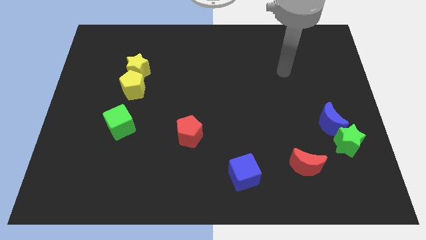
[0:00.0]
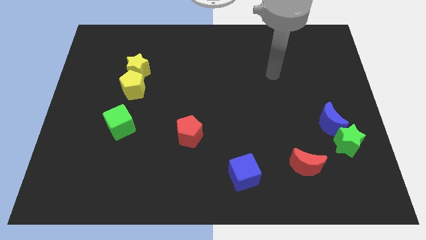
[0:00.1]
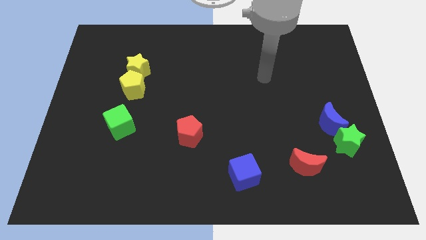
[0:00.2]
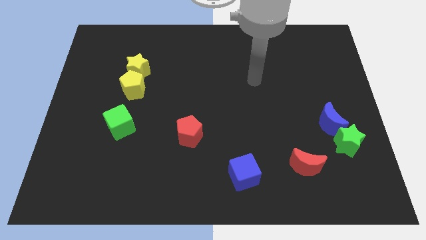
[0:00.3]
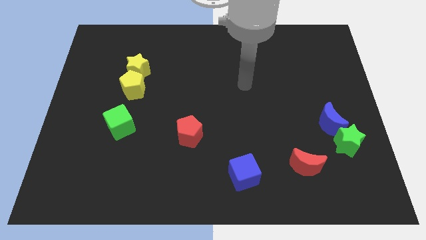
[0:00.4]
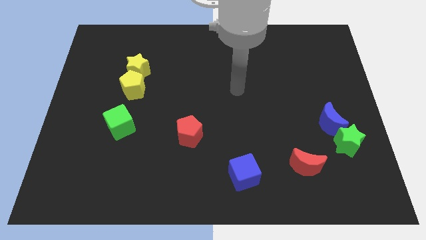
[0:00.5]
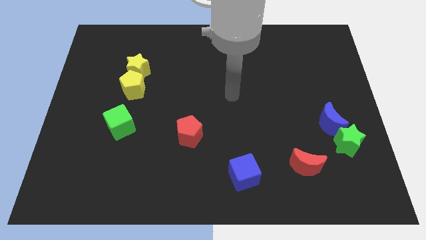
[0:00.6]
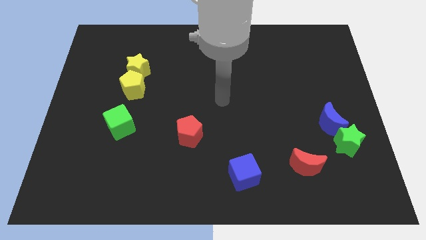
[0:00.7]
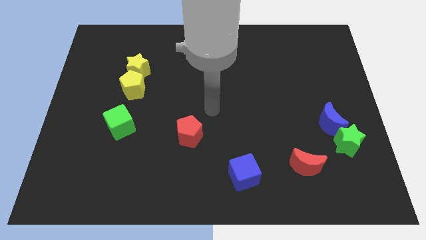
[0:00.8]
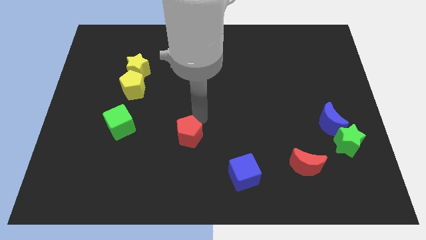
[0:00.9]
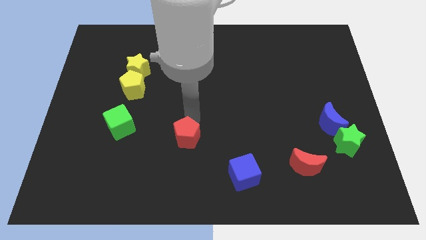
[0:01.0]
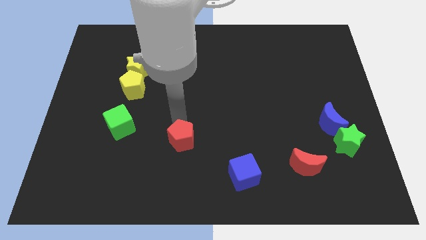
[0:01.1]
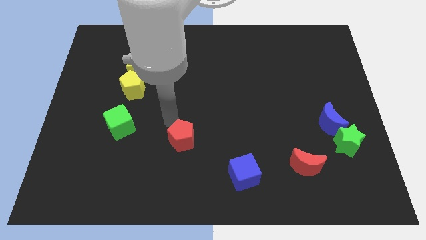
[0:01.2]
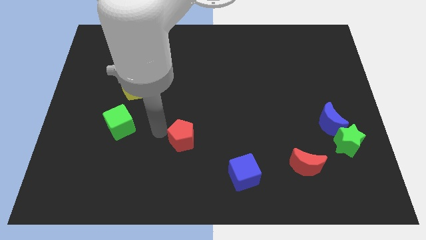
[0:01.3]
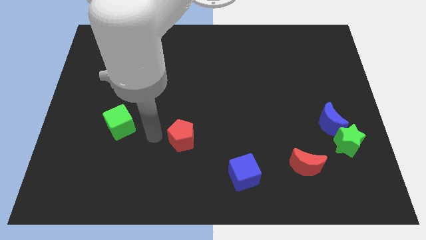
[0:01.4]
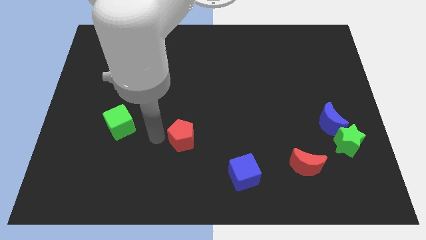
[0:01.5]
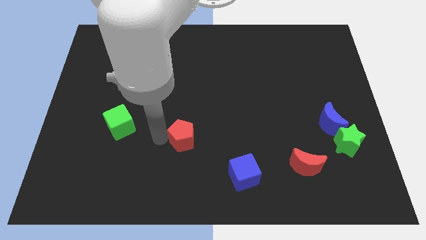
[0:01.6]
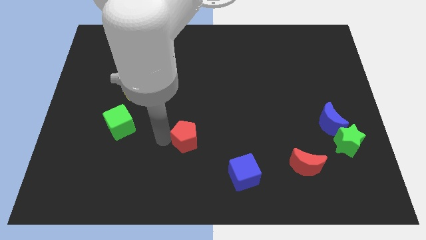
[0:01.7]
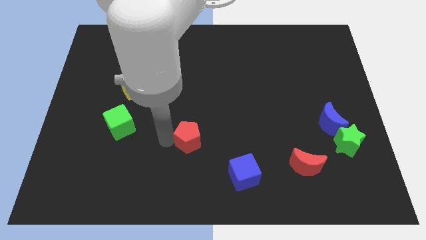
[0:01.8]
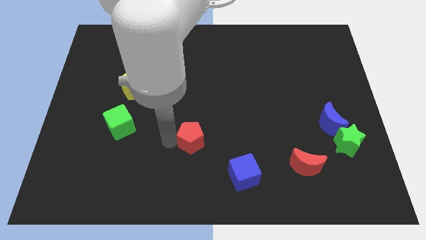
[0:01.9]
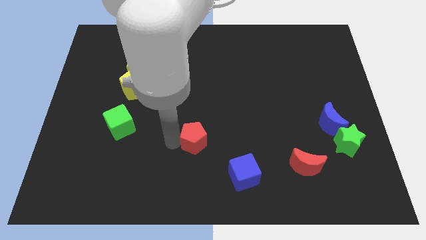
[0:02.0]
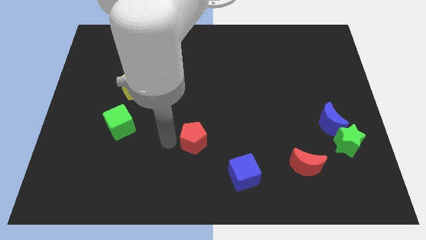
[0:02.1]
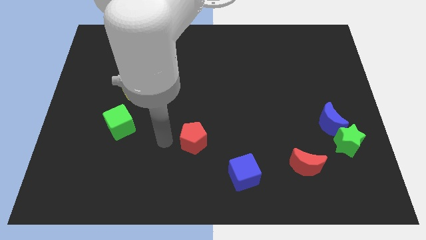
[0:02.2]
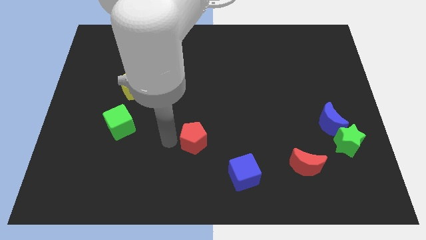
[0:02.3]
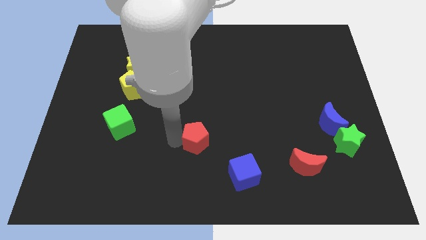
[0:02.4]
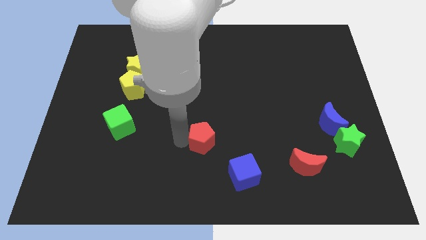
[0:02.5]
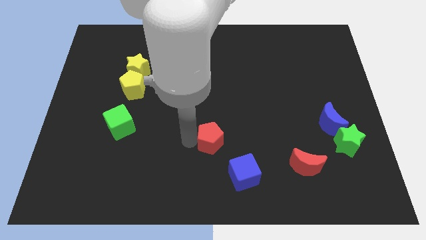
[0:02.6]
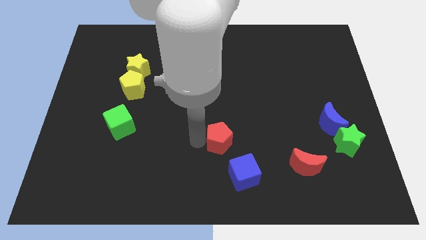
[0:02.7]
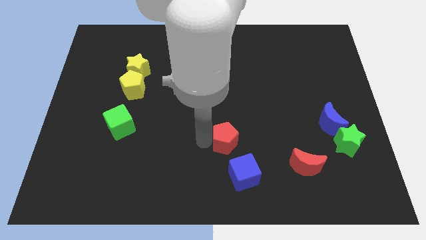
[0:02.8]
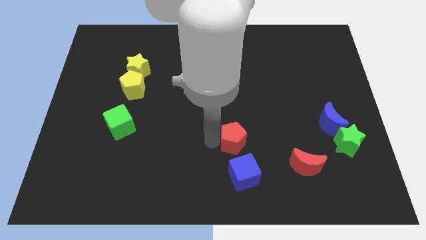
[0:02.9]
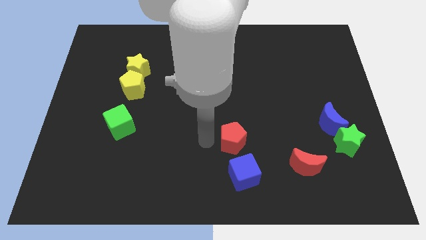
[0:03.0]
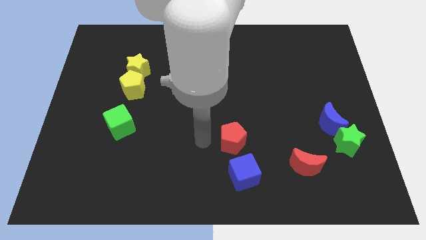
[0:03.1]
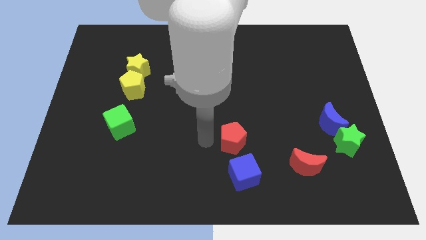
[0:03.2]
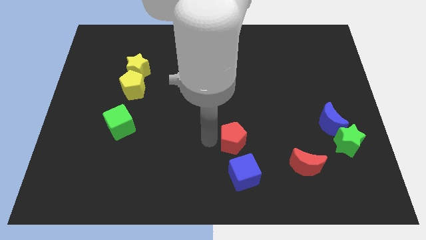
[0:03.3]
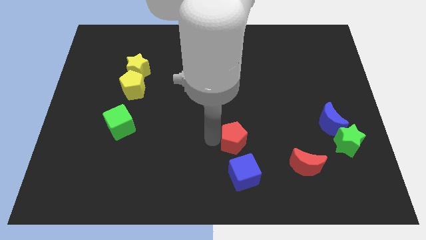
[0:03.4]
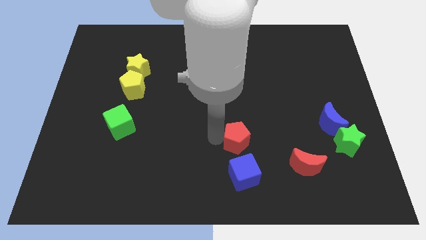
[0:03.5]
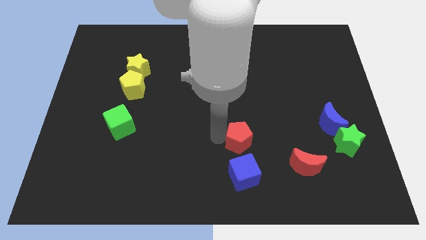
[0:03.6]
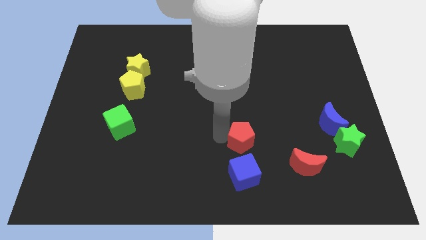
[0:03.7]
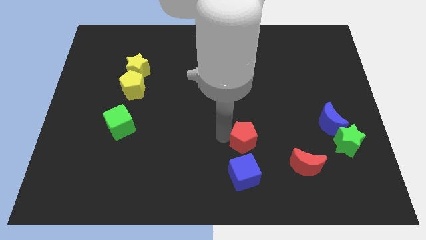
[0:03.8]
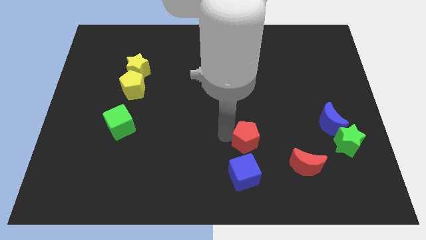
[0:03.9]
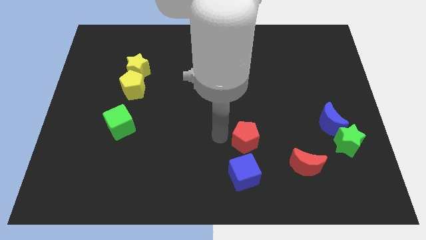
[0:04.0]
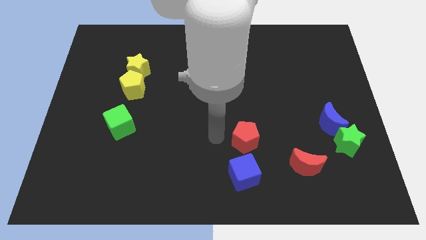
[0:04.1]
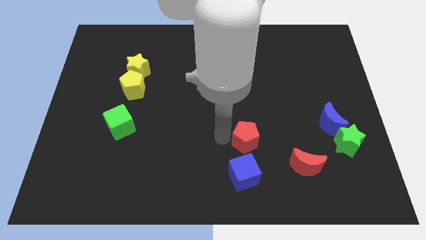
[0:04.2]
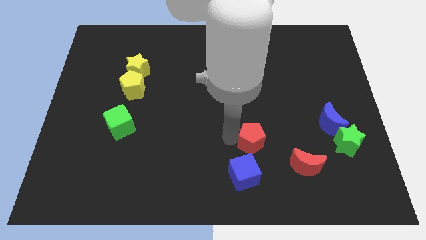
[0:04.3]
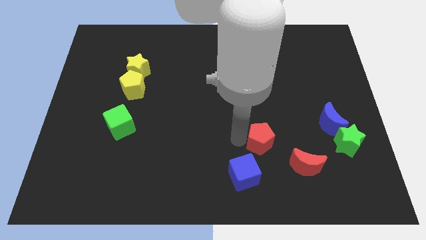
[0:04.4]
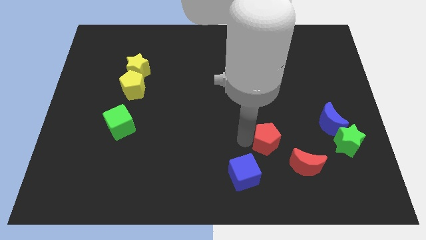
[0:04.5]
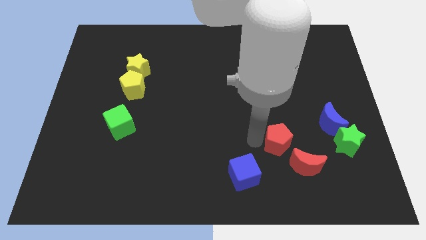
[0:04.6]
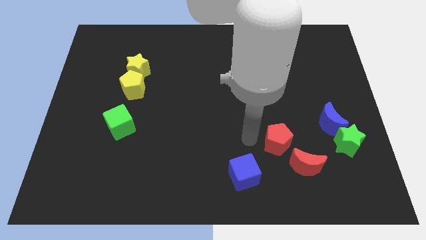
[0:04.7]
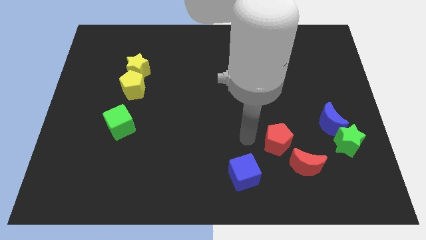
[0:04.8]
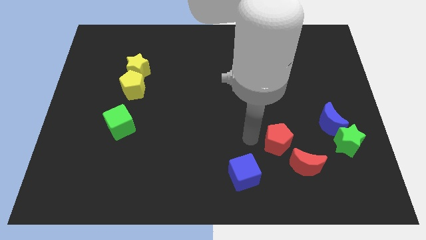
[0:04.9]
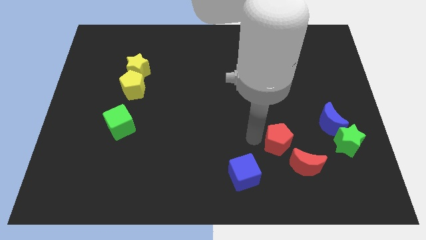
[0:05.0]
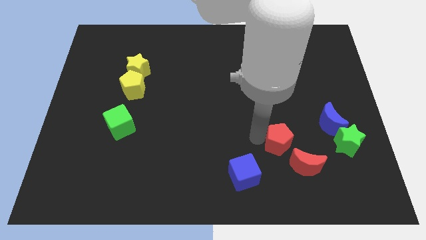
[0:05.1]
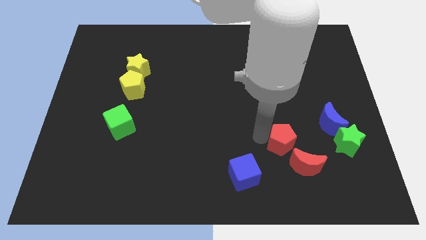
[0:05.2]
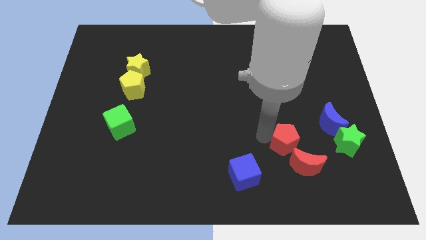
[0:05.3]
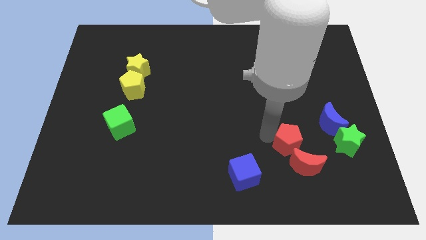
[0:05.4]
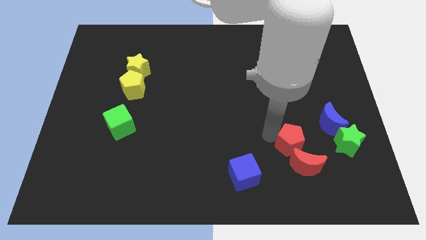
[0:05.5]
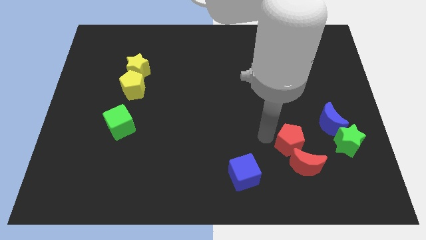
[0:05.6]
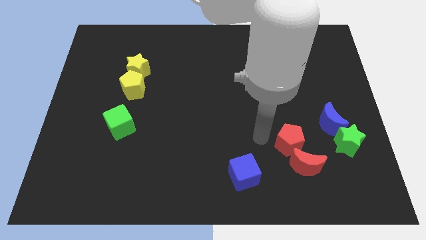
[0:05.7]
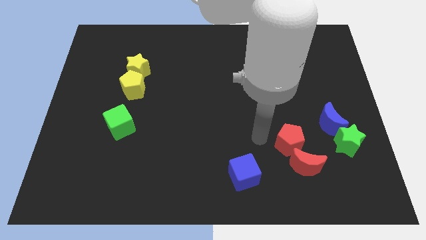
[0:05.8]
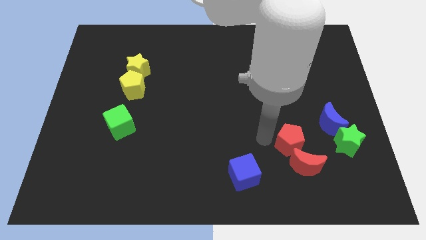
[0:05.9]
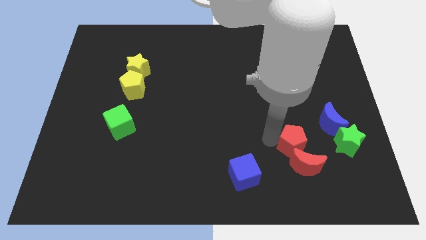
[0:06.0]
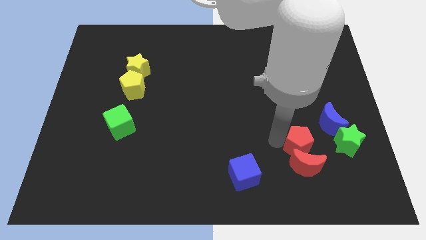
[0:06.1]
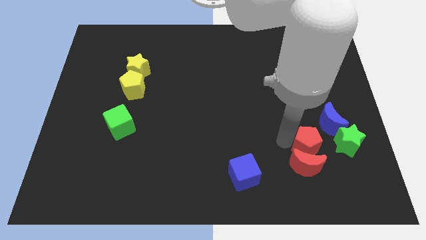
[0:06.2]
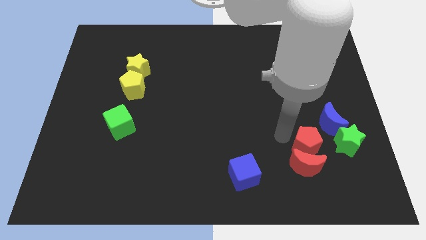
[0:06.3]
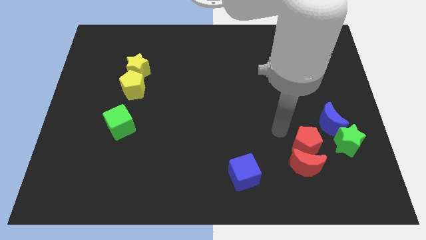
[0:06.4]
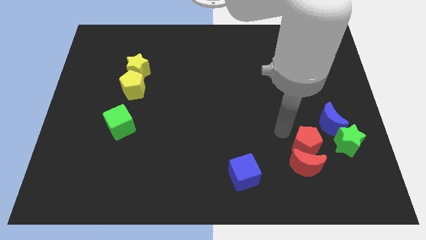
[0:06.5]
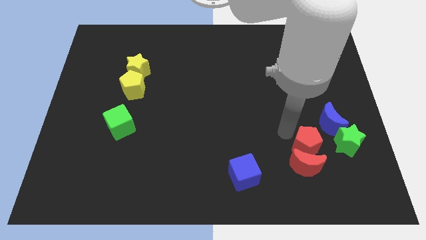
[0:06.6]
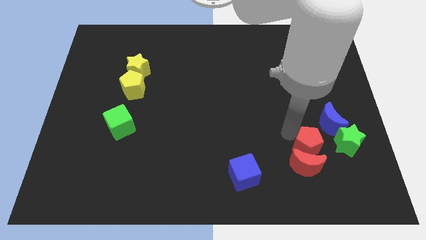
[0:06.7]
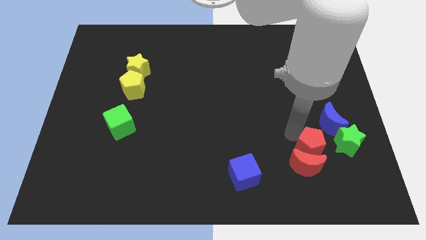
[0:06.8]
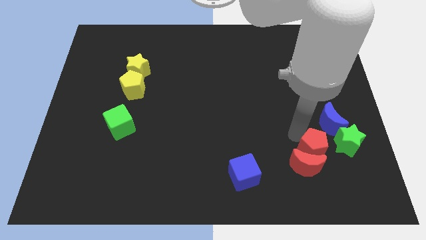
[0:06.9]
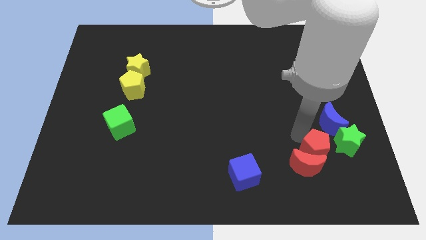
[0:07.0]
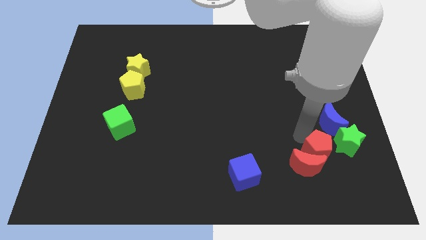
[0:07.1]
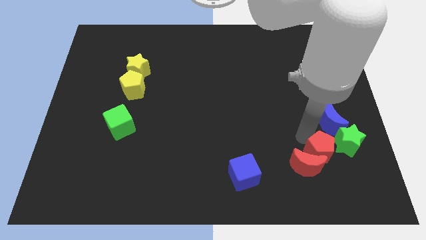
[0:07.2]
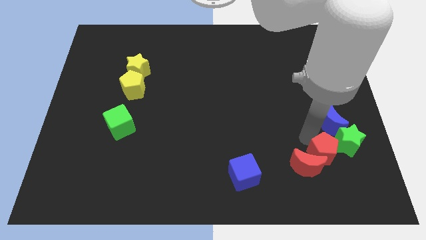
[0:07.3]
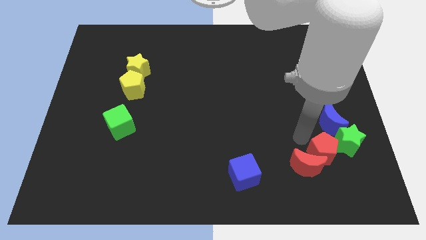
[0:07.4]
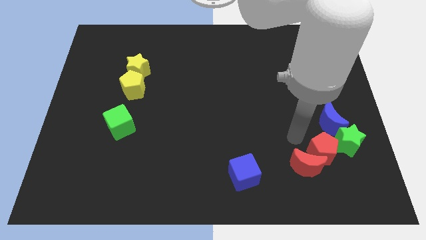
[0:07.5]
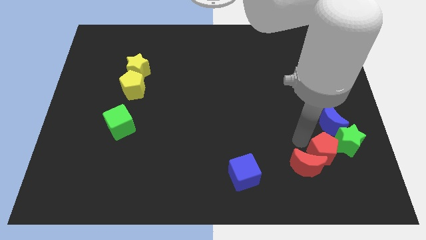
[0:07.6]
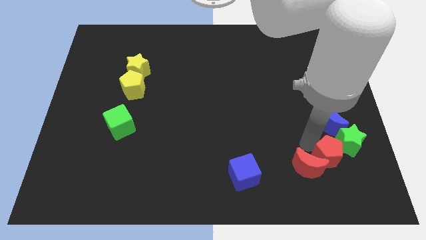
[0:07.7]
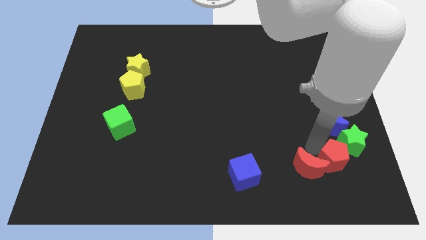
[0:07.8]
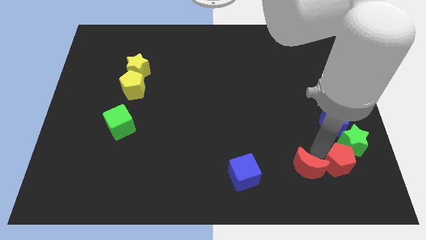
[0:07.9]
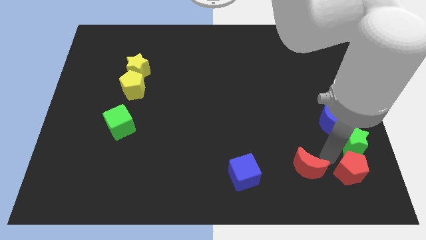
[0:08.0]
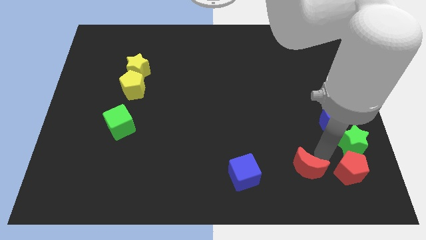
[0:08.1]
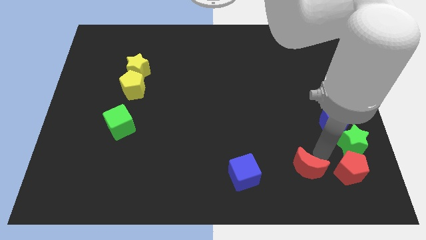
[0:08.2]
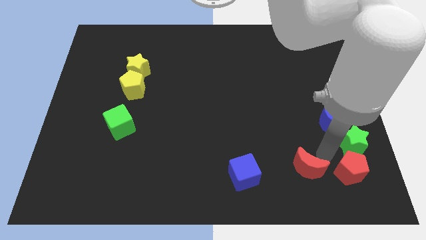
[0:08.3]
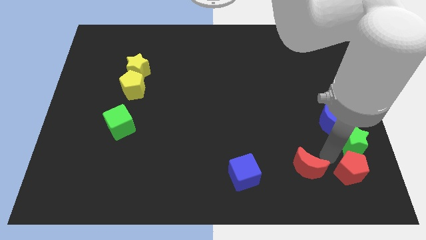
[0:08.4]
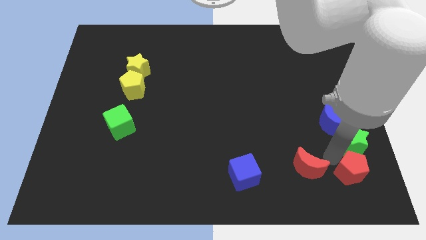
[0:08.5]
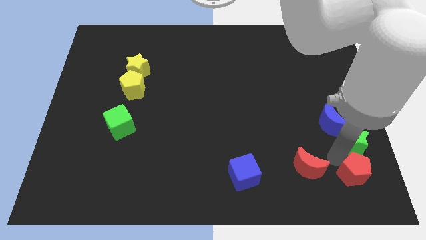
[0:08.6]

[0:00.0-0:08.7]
slide the red pentagon to the bottom right corner
